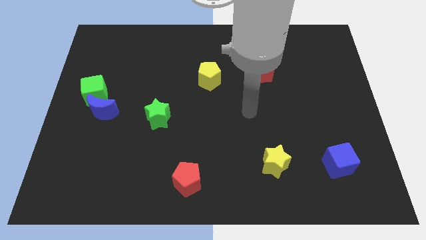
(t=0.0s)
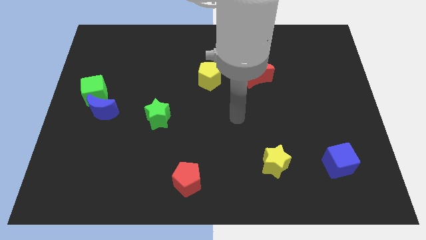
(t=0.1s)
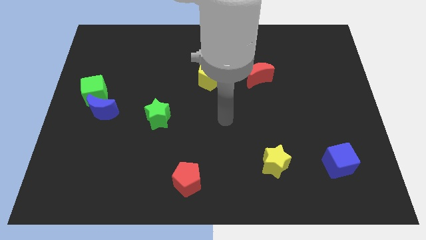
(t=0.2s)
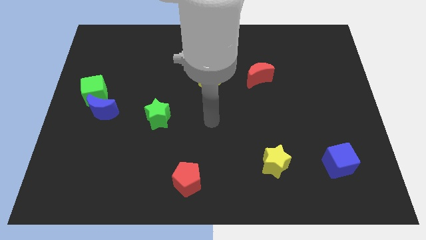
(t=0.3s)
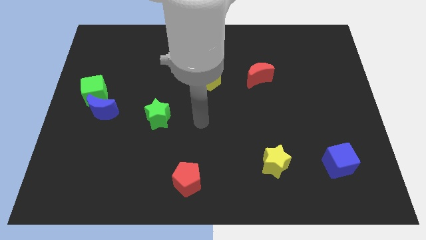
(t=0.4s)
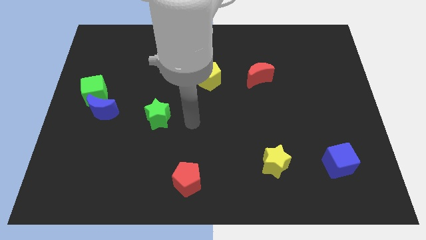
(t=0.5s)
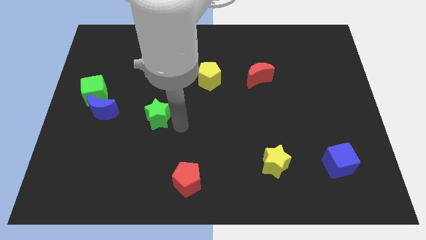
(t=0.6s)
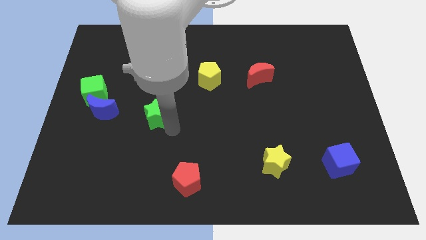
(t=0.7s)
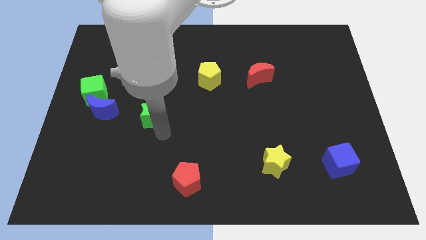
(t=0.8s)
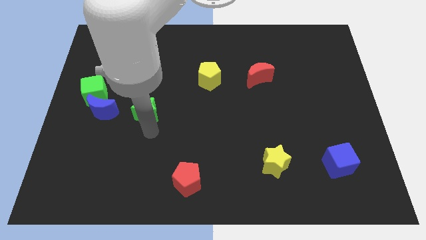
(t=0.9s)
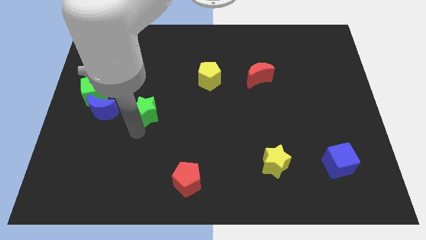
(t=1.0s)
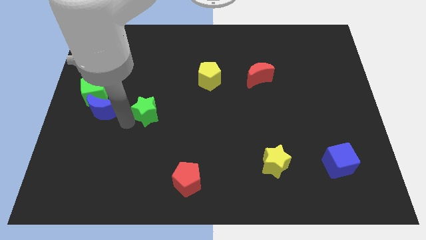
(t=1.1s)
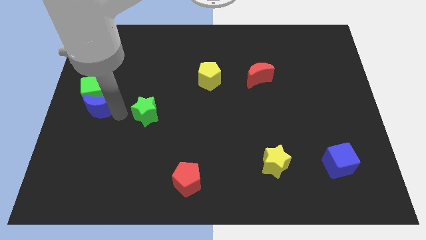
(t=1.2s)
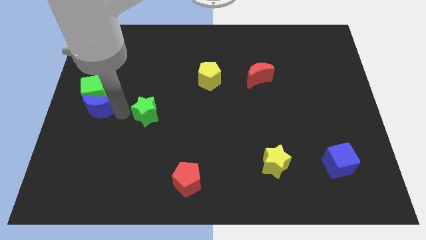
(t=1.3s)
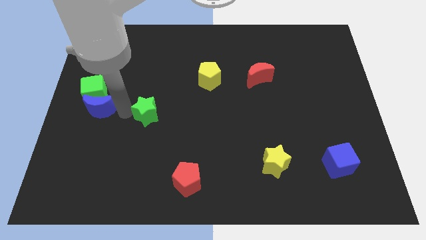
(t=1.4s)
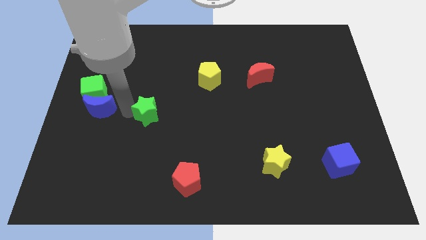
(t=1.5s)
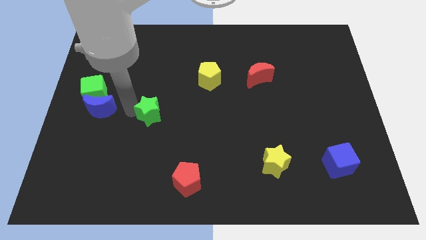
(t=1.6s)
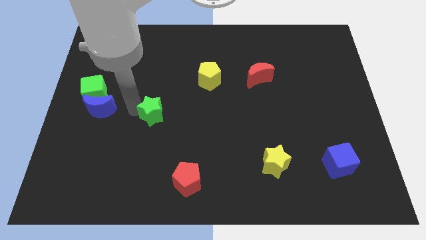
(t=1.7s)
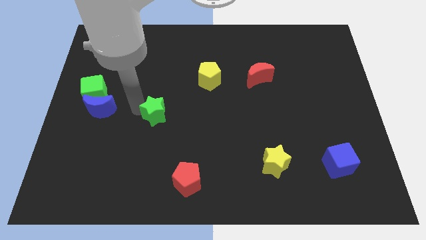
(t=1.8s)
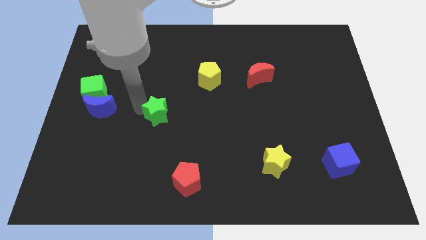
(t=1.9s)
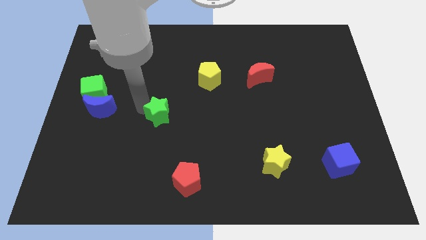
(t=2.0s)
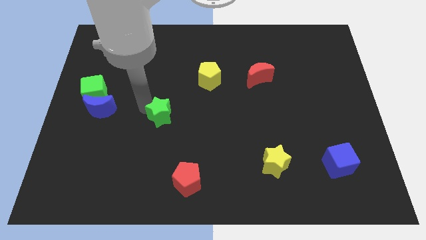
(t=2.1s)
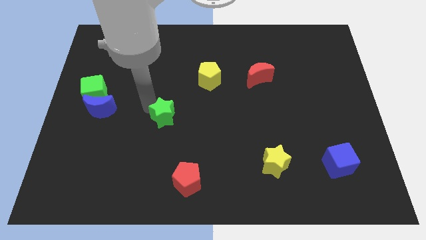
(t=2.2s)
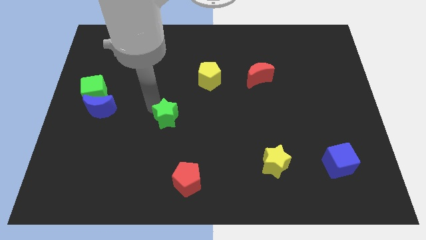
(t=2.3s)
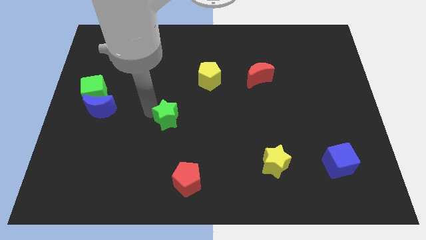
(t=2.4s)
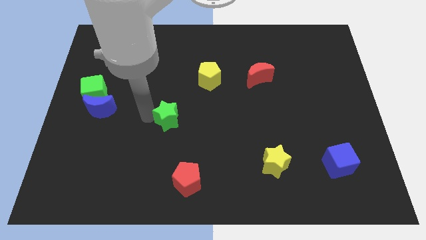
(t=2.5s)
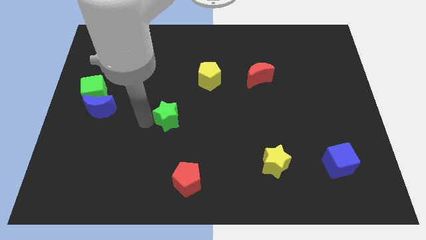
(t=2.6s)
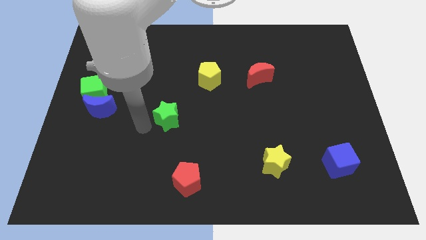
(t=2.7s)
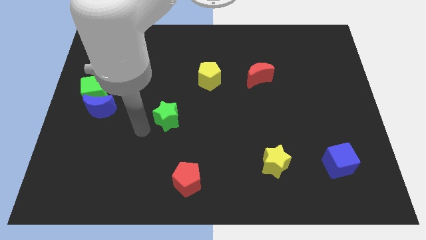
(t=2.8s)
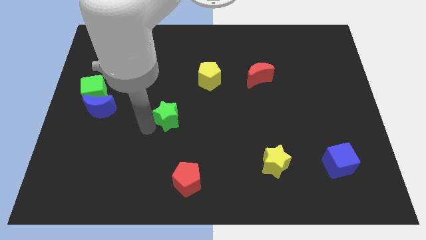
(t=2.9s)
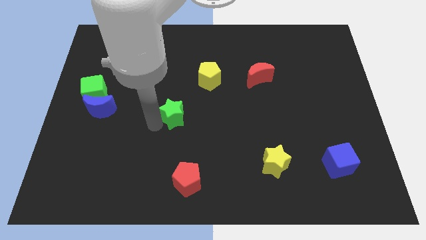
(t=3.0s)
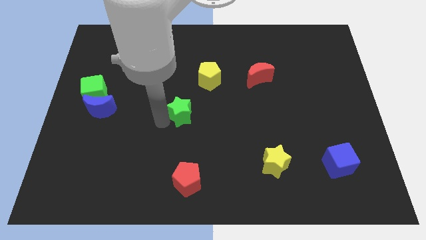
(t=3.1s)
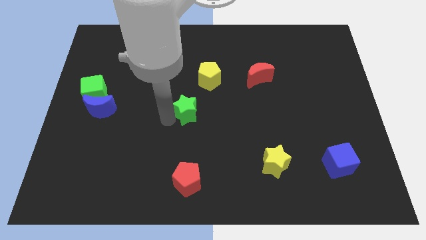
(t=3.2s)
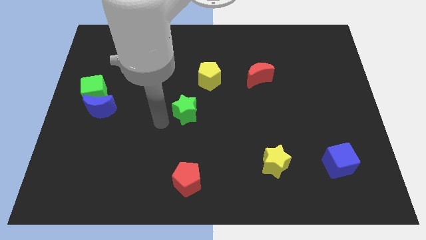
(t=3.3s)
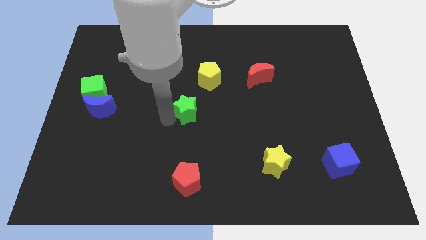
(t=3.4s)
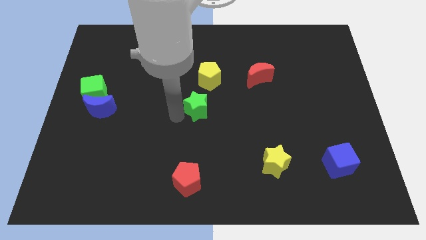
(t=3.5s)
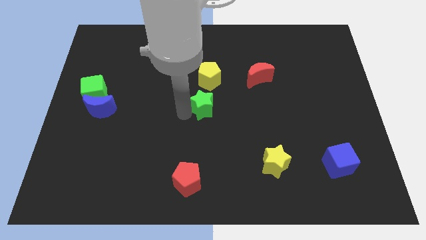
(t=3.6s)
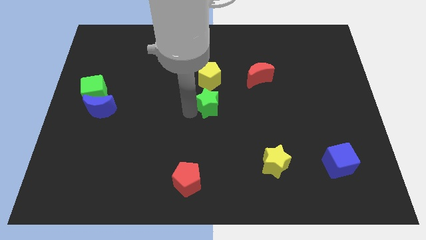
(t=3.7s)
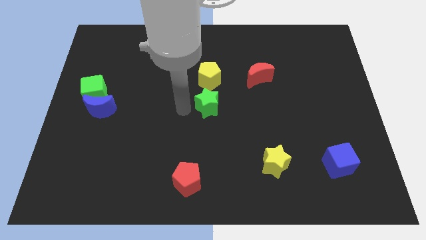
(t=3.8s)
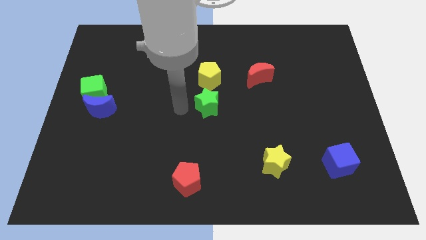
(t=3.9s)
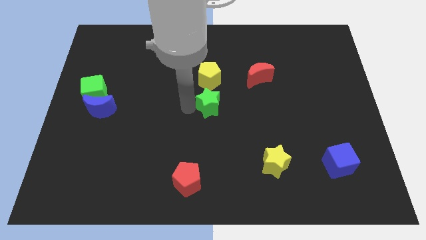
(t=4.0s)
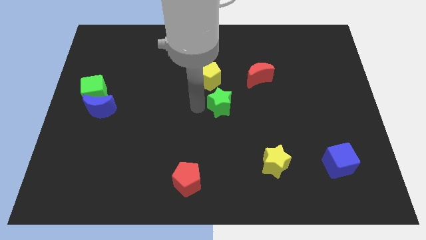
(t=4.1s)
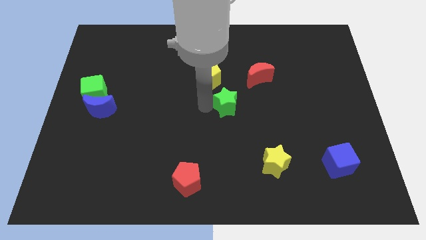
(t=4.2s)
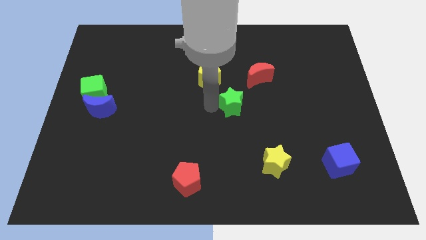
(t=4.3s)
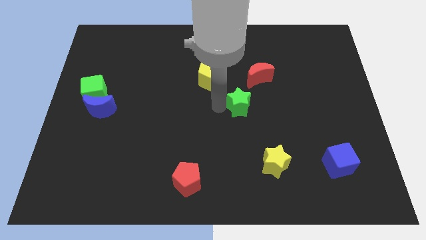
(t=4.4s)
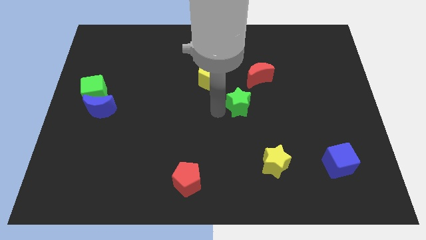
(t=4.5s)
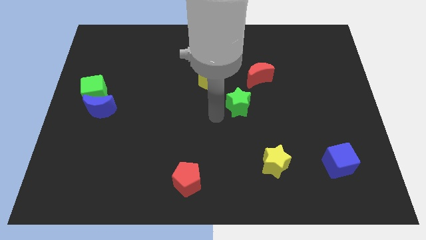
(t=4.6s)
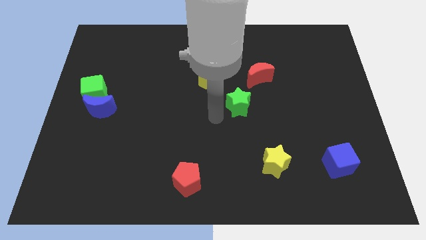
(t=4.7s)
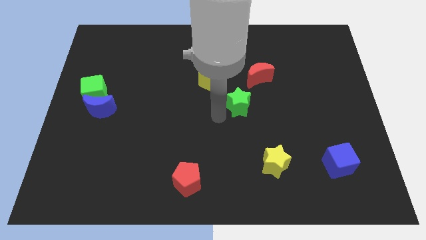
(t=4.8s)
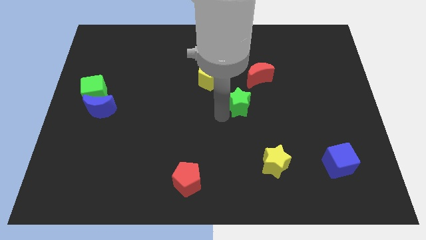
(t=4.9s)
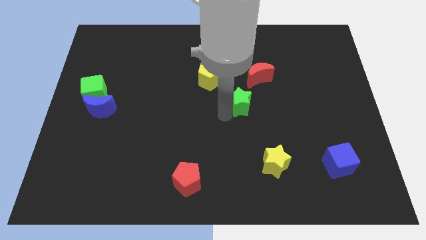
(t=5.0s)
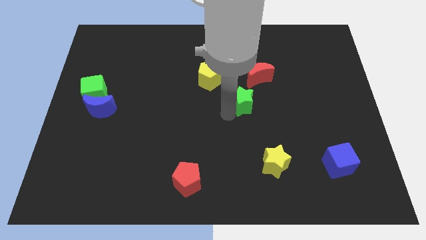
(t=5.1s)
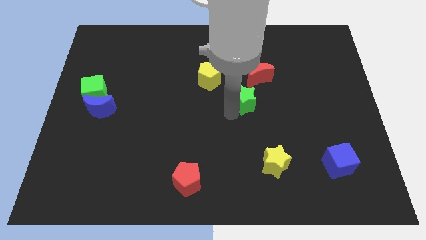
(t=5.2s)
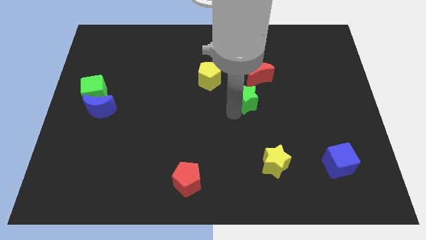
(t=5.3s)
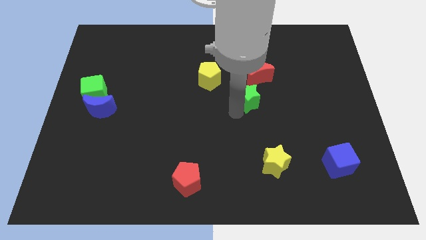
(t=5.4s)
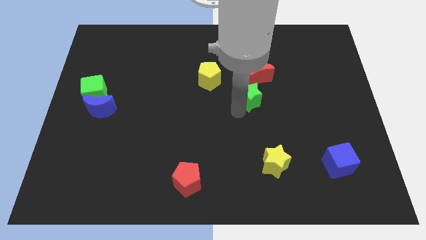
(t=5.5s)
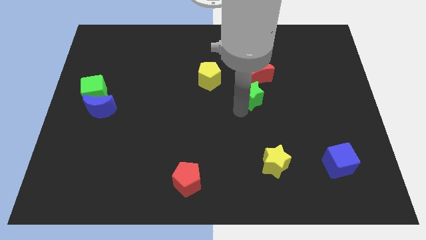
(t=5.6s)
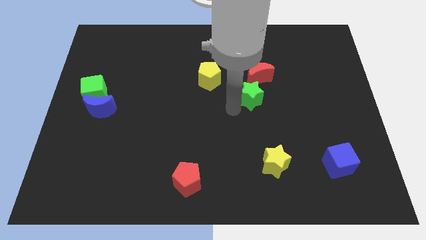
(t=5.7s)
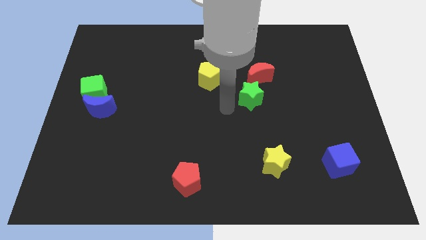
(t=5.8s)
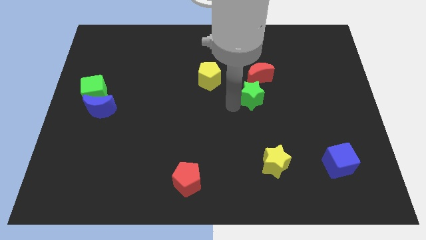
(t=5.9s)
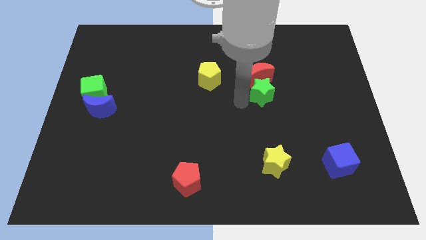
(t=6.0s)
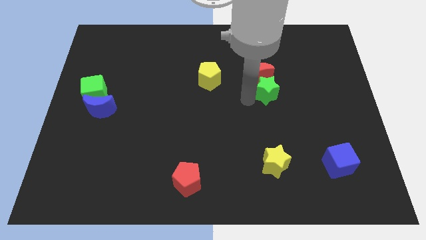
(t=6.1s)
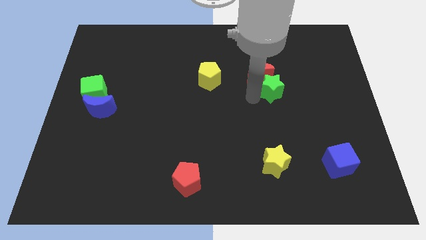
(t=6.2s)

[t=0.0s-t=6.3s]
push the green star to the right of the red moon
